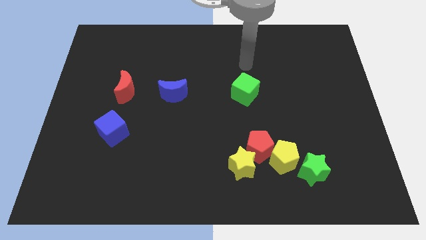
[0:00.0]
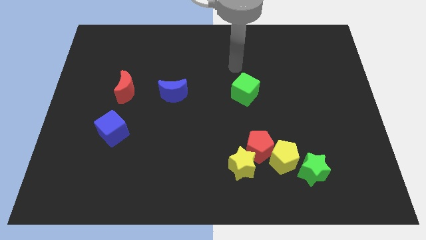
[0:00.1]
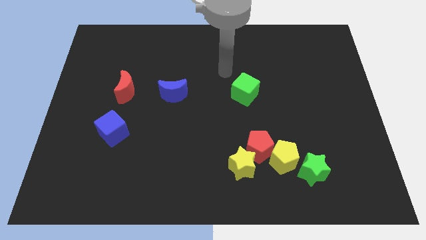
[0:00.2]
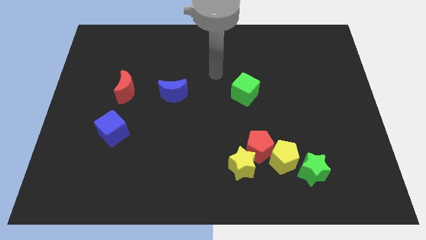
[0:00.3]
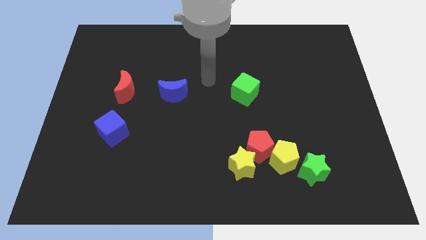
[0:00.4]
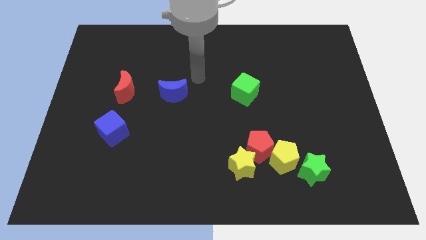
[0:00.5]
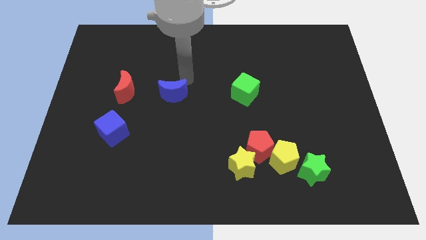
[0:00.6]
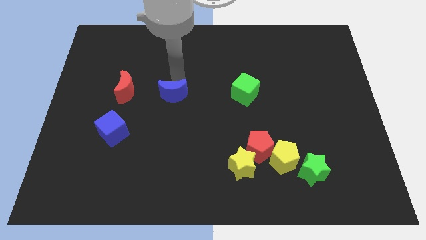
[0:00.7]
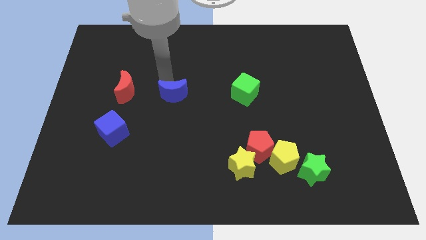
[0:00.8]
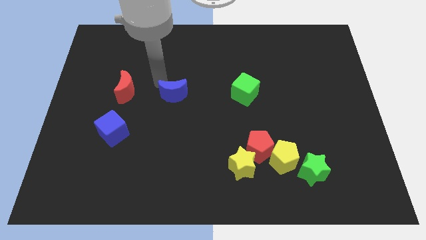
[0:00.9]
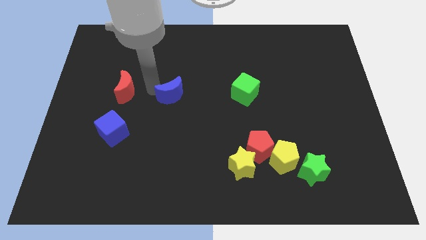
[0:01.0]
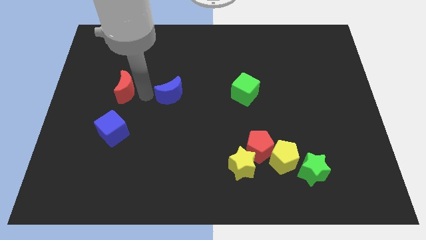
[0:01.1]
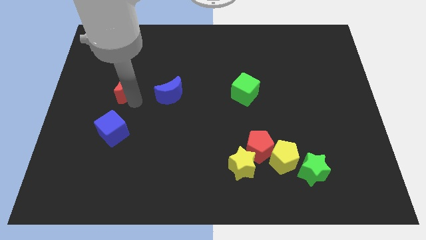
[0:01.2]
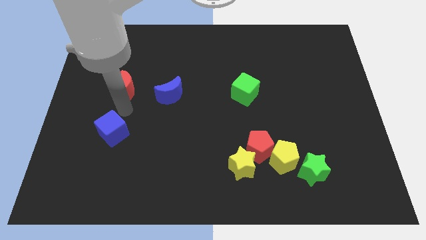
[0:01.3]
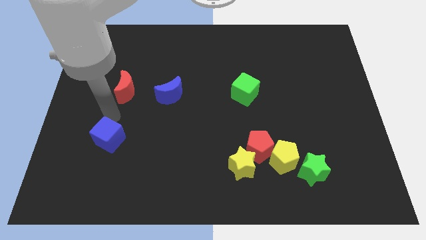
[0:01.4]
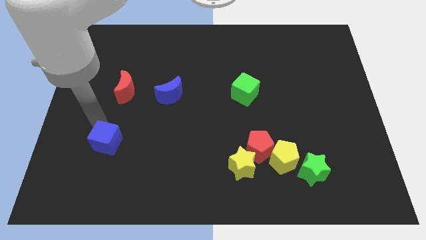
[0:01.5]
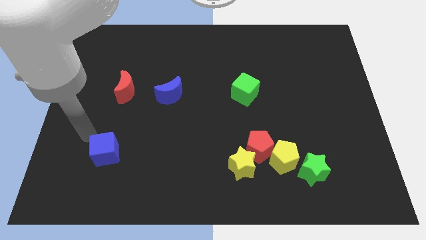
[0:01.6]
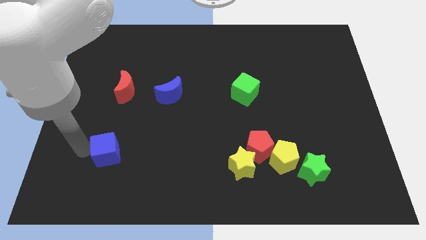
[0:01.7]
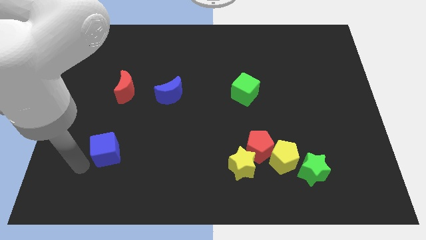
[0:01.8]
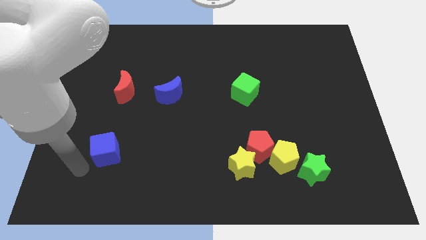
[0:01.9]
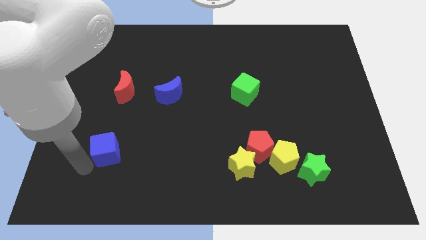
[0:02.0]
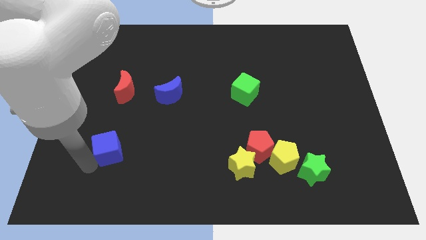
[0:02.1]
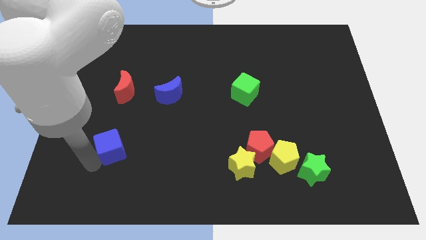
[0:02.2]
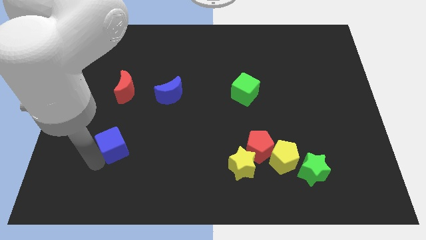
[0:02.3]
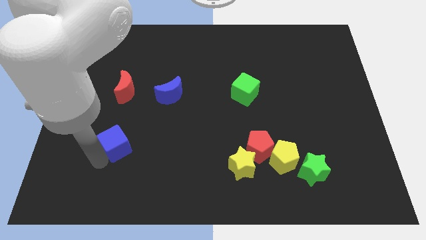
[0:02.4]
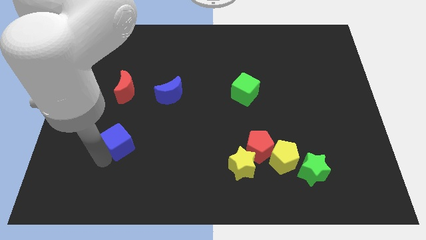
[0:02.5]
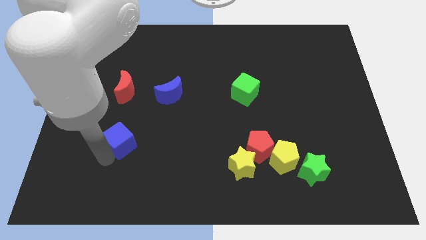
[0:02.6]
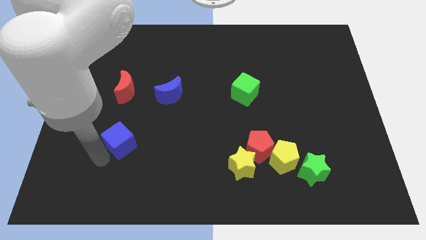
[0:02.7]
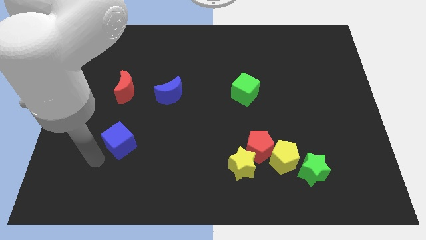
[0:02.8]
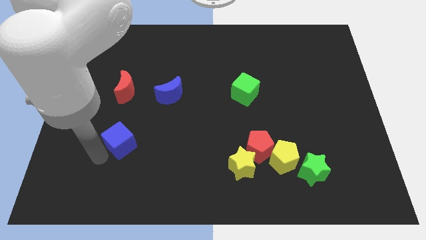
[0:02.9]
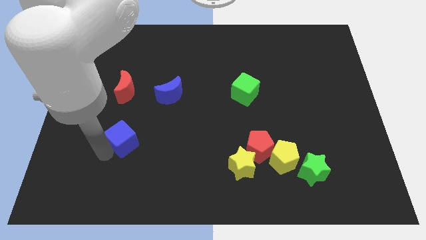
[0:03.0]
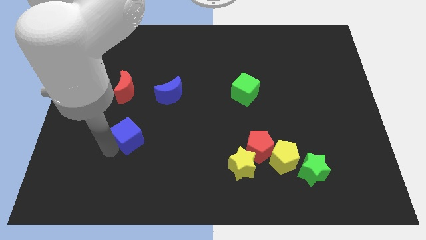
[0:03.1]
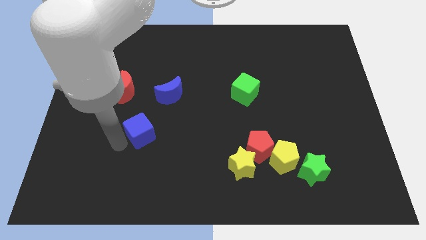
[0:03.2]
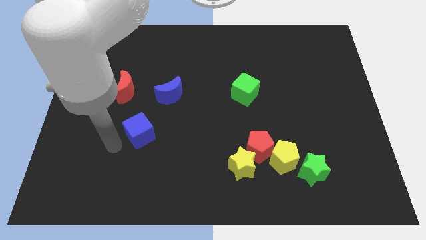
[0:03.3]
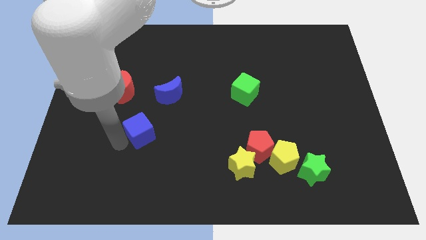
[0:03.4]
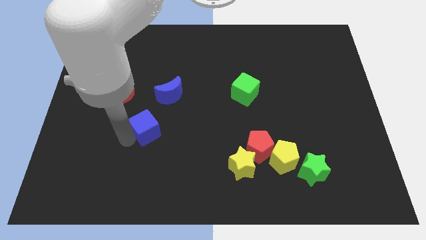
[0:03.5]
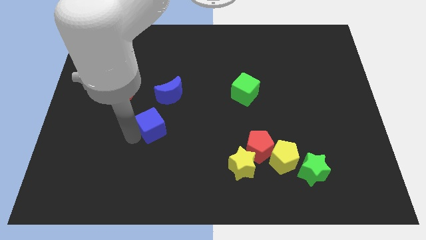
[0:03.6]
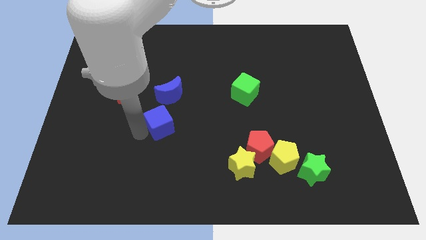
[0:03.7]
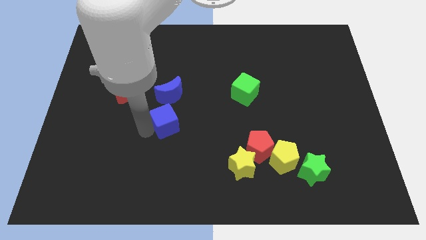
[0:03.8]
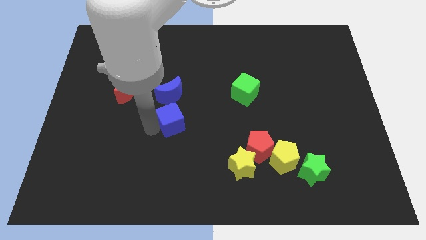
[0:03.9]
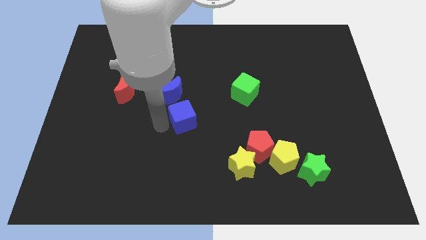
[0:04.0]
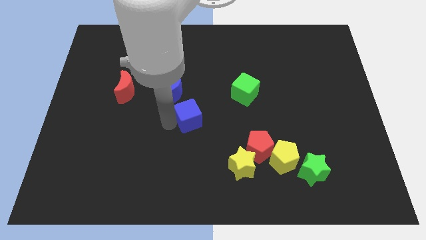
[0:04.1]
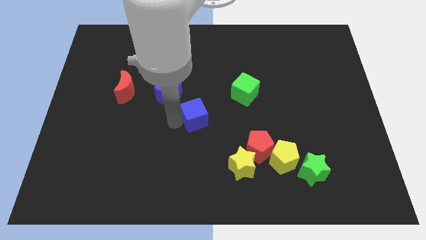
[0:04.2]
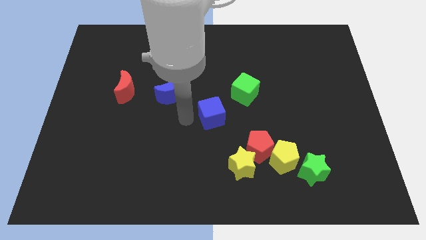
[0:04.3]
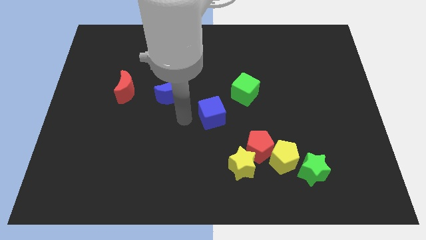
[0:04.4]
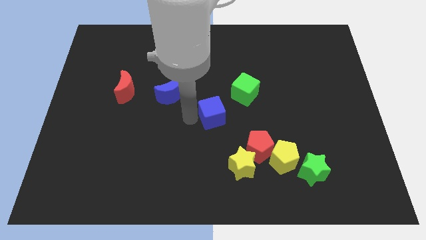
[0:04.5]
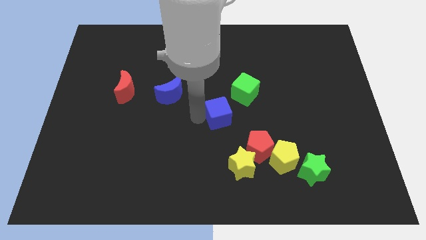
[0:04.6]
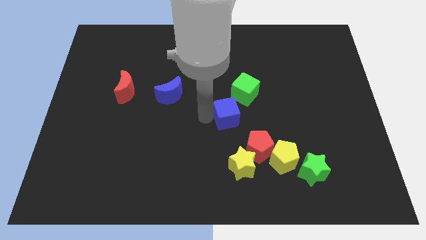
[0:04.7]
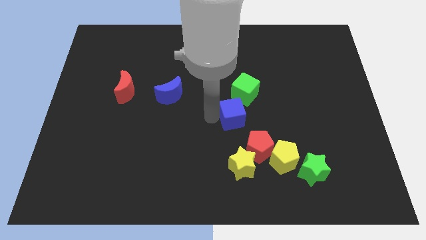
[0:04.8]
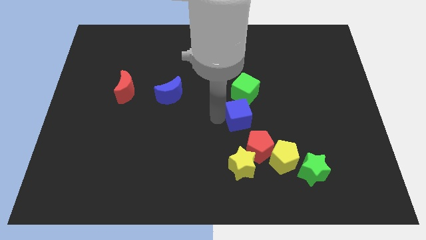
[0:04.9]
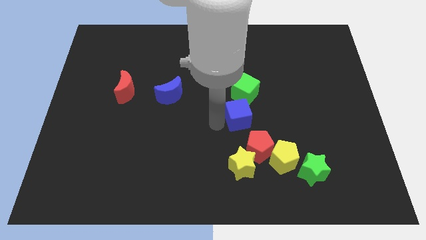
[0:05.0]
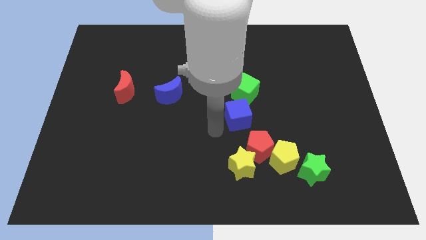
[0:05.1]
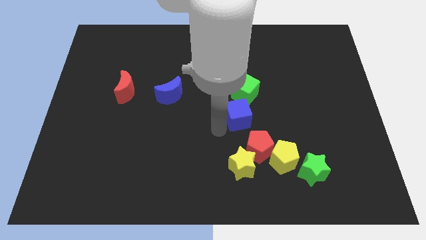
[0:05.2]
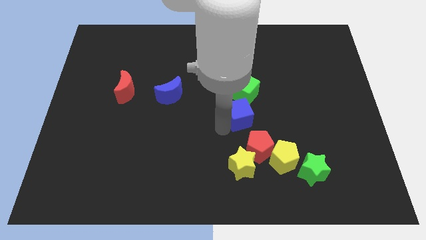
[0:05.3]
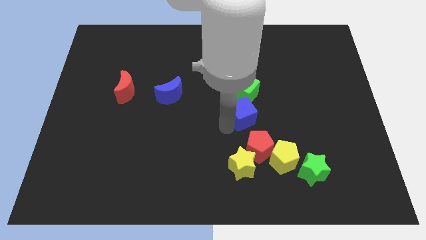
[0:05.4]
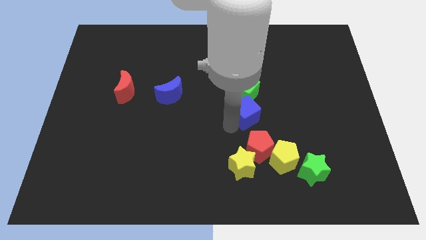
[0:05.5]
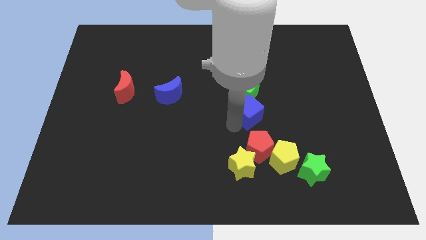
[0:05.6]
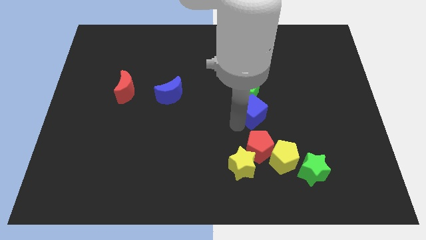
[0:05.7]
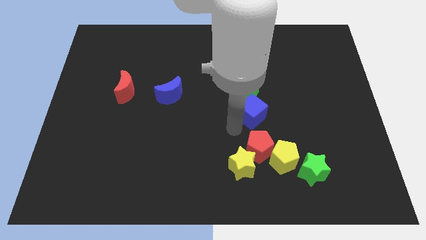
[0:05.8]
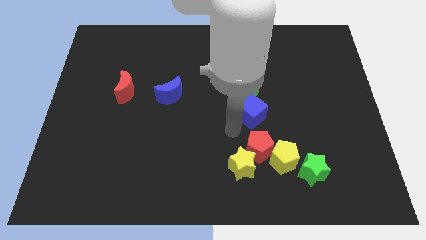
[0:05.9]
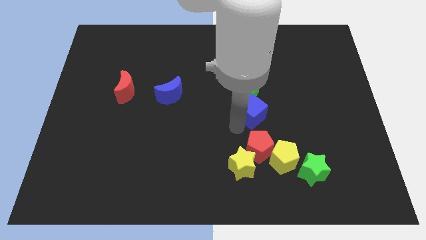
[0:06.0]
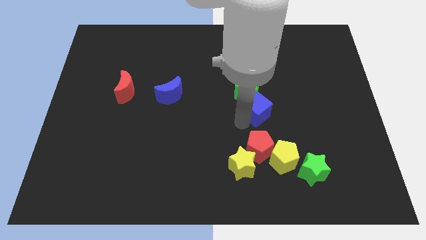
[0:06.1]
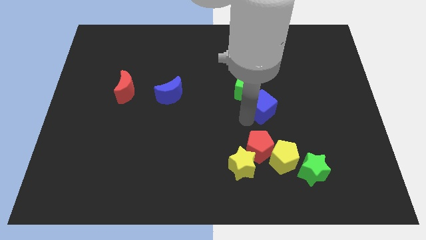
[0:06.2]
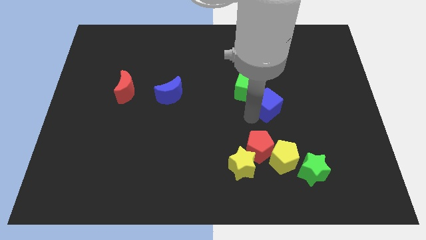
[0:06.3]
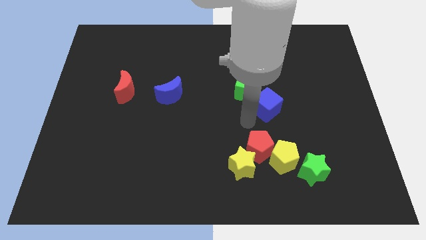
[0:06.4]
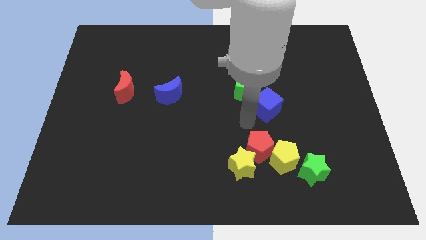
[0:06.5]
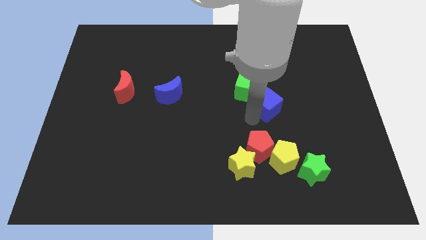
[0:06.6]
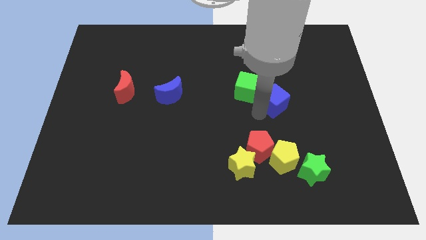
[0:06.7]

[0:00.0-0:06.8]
move the blue cube right of the green cube
